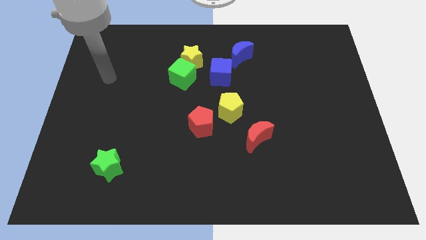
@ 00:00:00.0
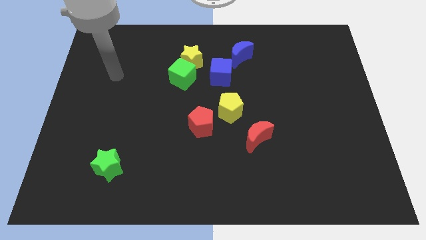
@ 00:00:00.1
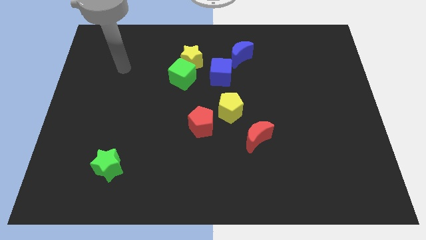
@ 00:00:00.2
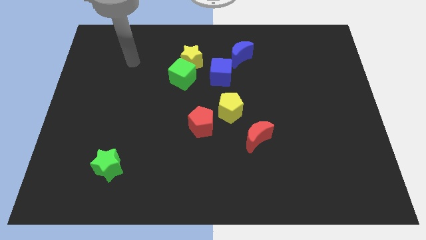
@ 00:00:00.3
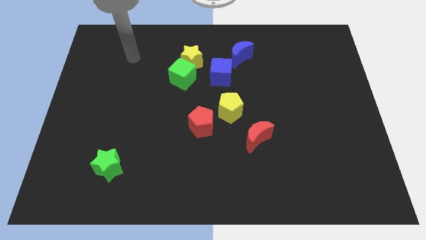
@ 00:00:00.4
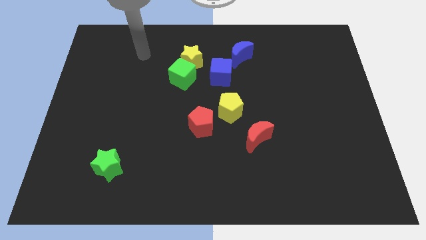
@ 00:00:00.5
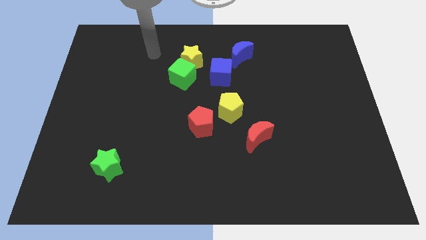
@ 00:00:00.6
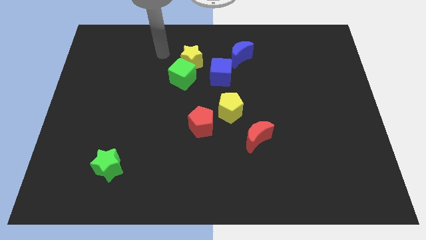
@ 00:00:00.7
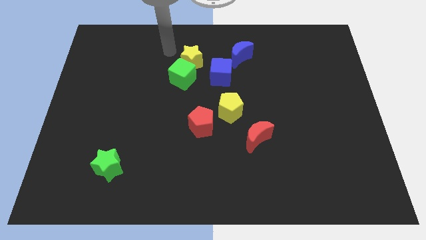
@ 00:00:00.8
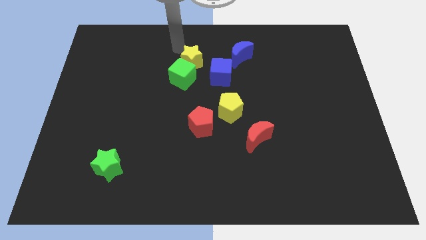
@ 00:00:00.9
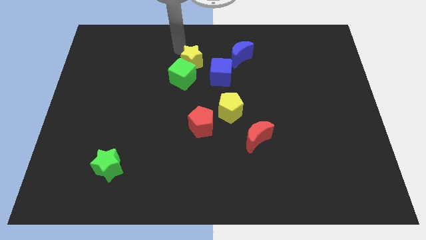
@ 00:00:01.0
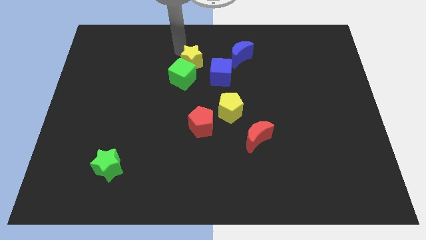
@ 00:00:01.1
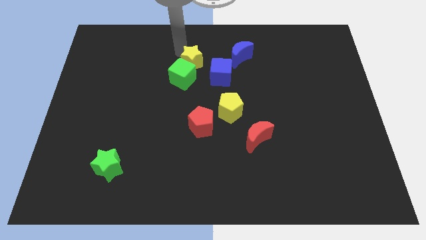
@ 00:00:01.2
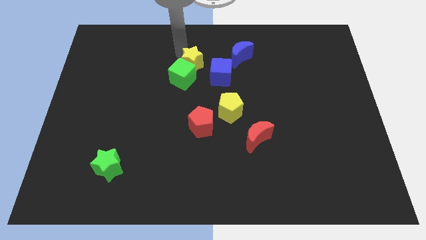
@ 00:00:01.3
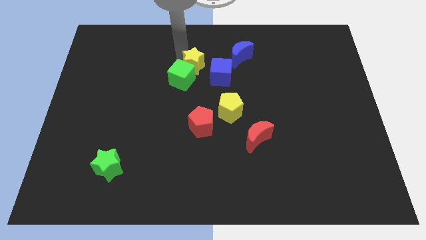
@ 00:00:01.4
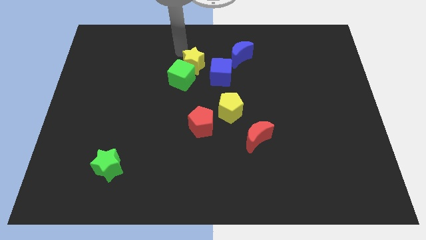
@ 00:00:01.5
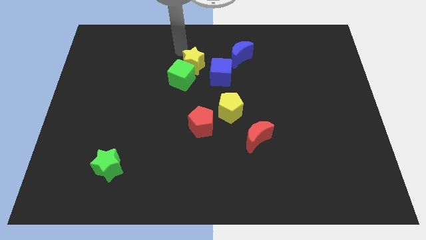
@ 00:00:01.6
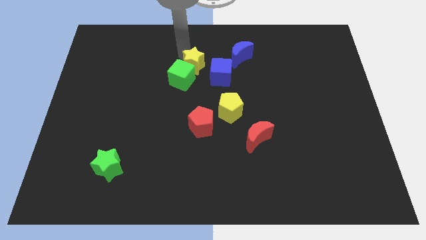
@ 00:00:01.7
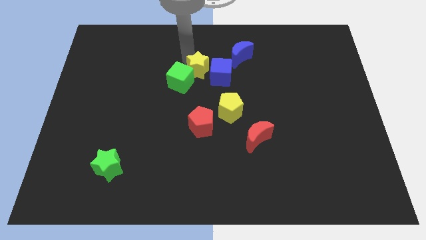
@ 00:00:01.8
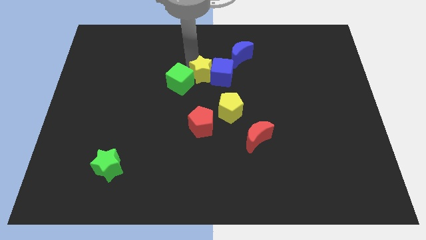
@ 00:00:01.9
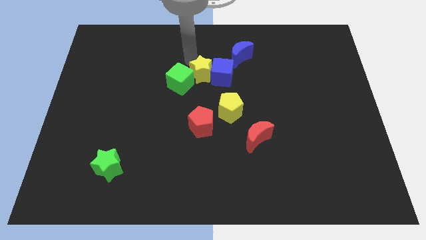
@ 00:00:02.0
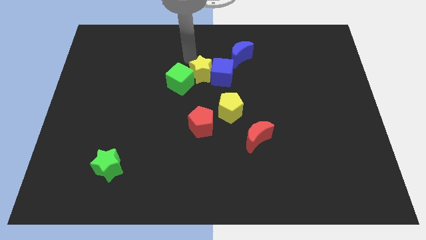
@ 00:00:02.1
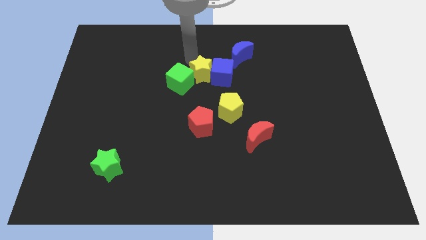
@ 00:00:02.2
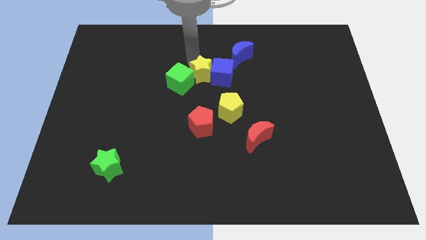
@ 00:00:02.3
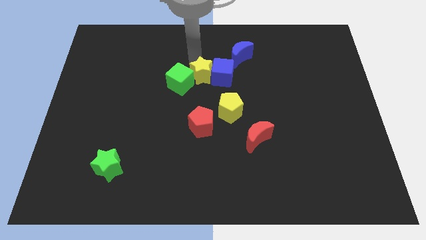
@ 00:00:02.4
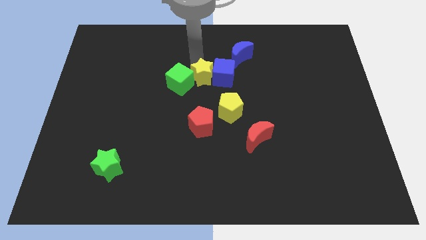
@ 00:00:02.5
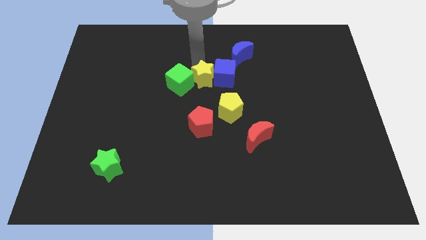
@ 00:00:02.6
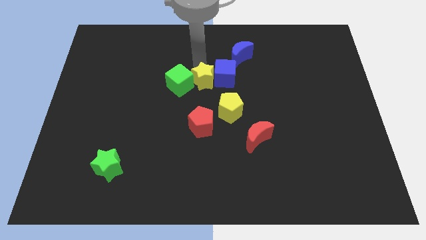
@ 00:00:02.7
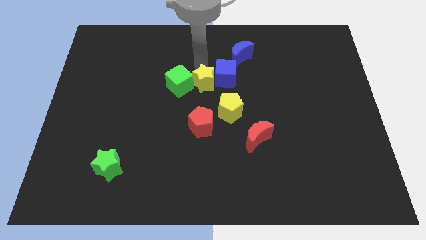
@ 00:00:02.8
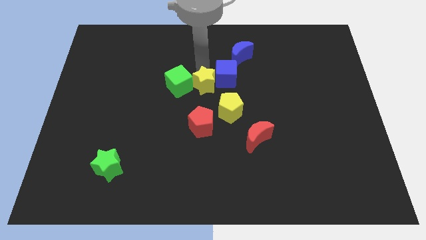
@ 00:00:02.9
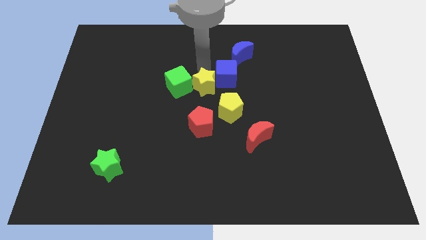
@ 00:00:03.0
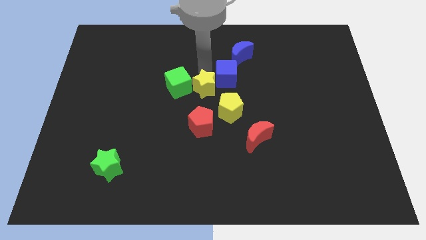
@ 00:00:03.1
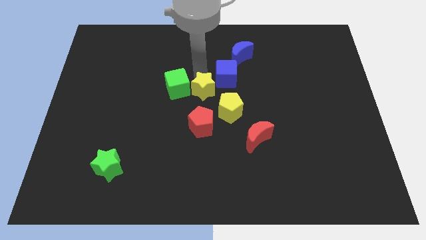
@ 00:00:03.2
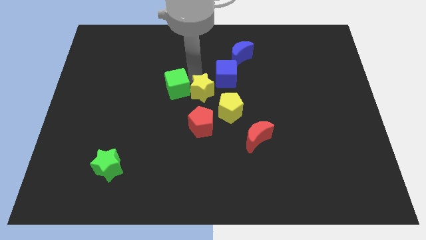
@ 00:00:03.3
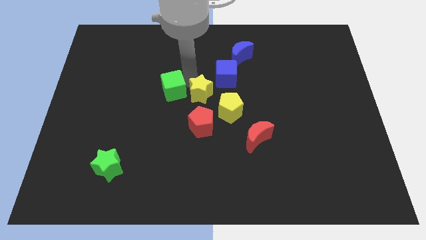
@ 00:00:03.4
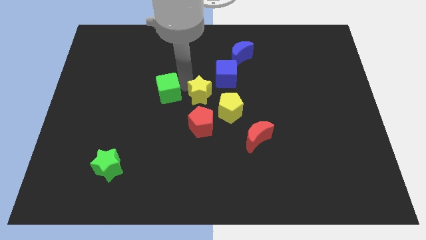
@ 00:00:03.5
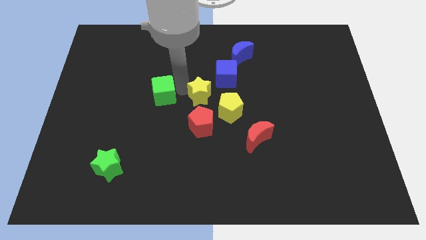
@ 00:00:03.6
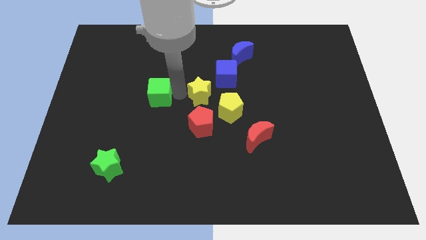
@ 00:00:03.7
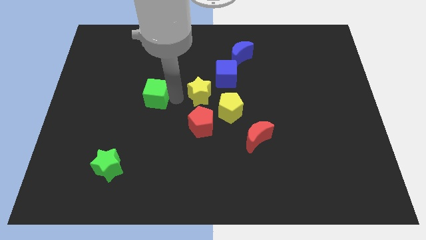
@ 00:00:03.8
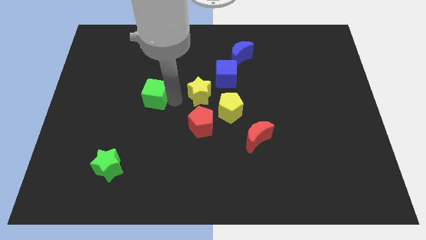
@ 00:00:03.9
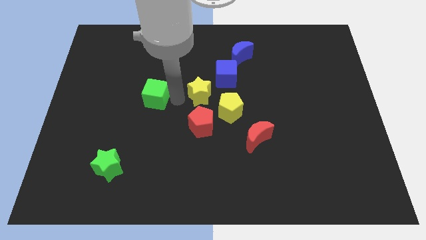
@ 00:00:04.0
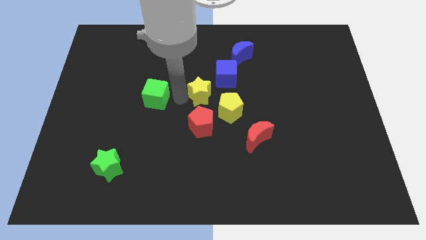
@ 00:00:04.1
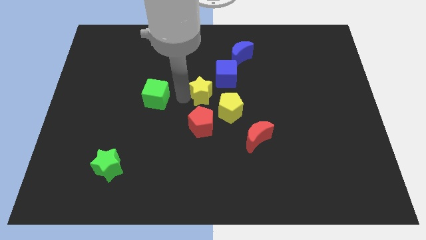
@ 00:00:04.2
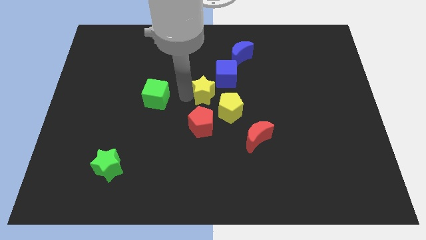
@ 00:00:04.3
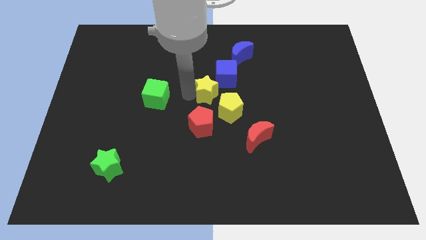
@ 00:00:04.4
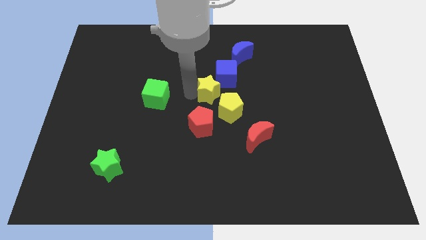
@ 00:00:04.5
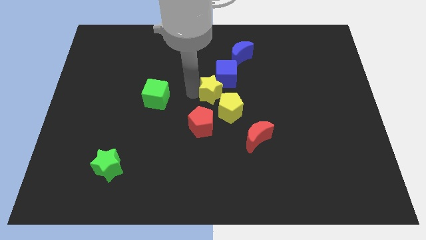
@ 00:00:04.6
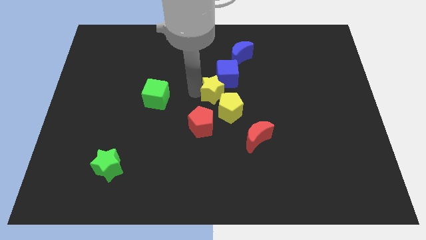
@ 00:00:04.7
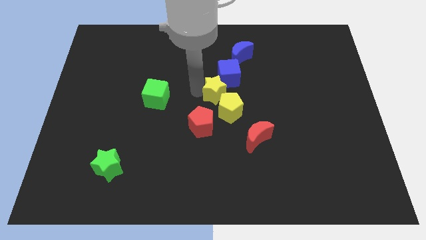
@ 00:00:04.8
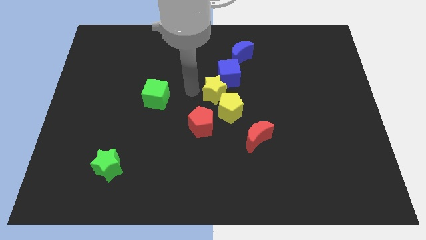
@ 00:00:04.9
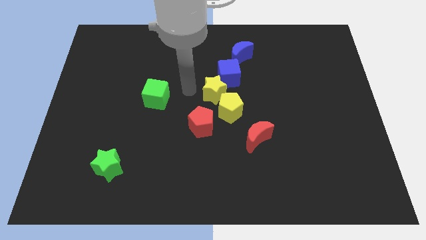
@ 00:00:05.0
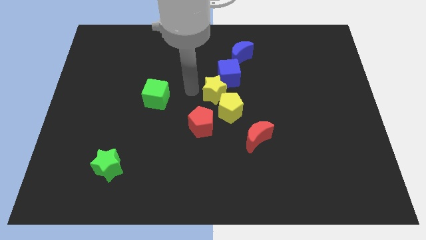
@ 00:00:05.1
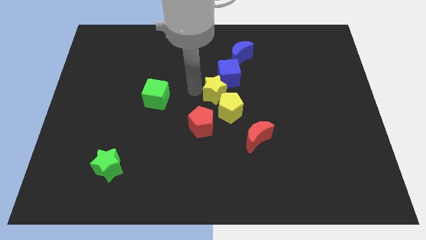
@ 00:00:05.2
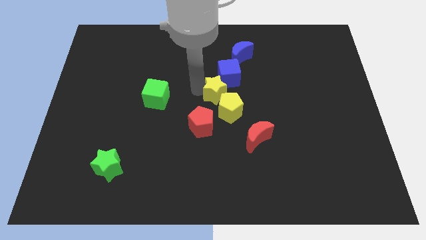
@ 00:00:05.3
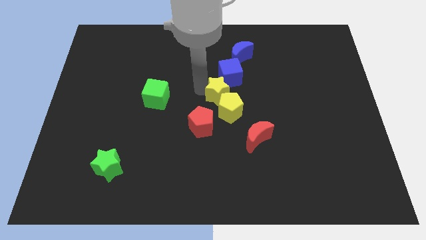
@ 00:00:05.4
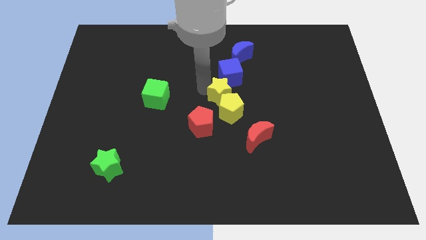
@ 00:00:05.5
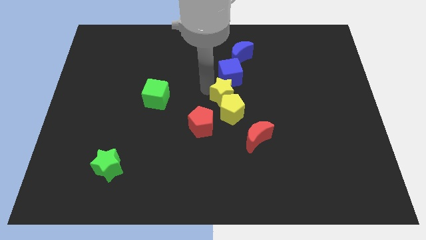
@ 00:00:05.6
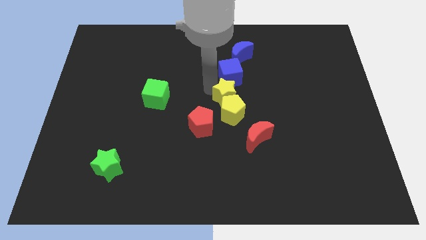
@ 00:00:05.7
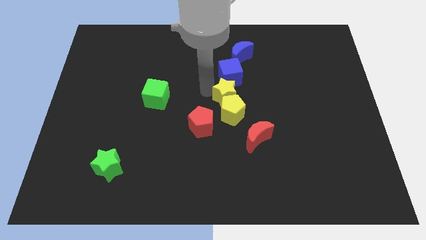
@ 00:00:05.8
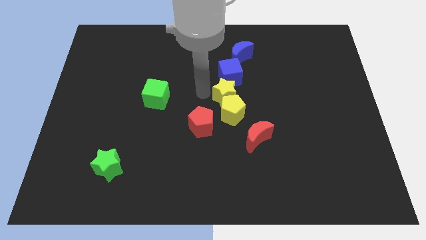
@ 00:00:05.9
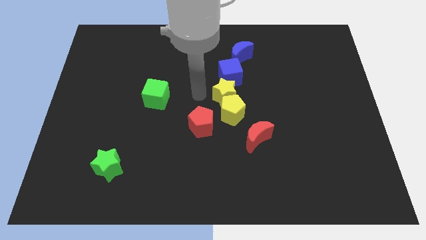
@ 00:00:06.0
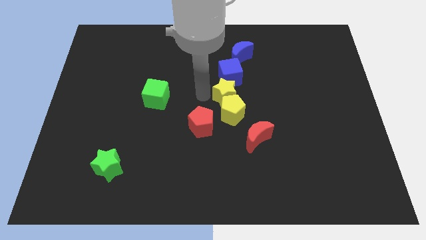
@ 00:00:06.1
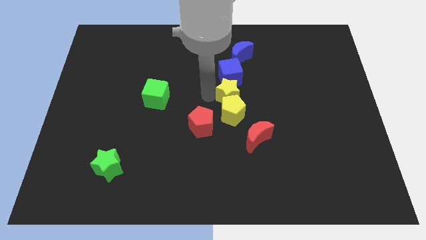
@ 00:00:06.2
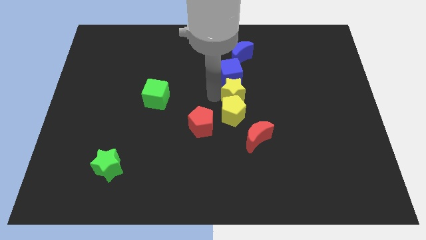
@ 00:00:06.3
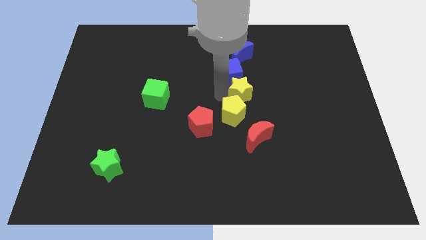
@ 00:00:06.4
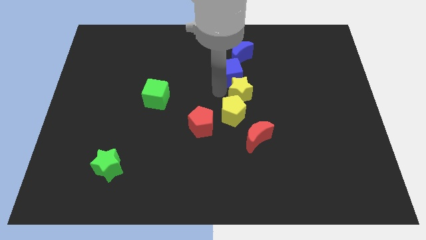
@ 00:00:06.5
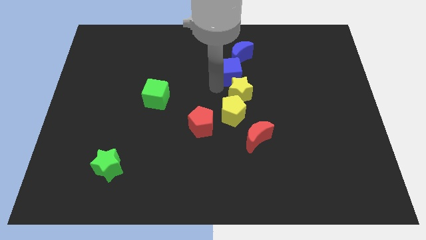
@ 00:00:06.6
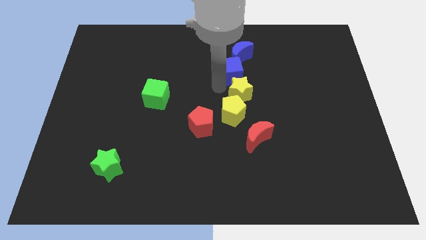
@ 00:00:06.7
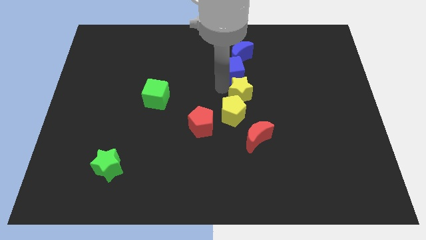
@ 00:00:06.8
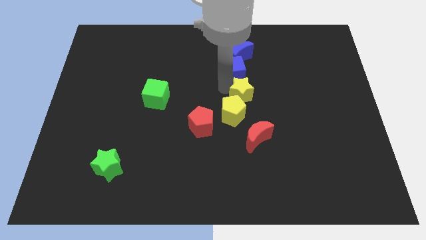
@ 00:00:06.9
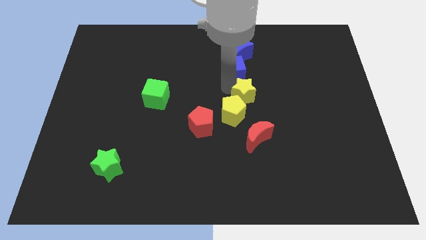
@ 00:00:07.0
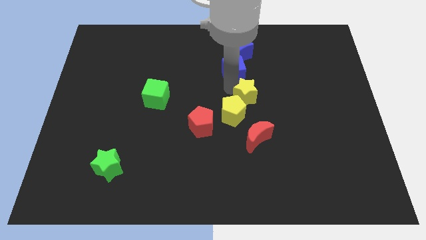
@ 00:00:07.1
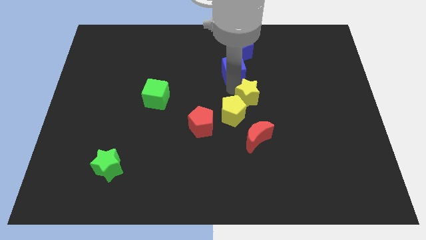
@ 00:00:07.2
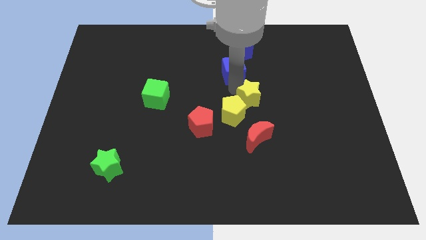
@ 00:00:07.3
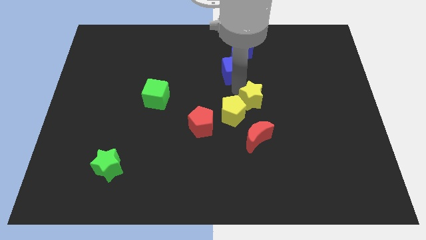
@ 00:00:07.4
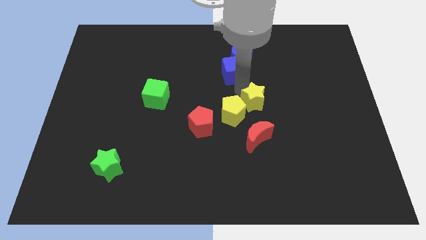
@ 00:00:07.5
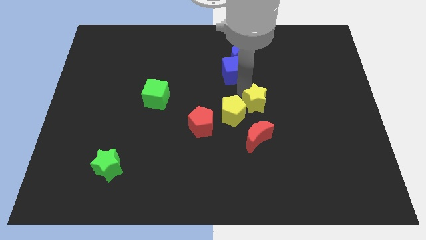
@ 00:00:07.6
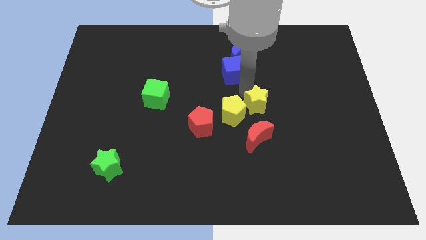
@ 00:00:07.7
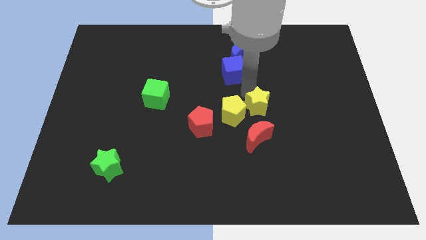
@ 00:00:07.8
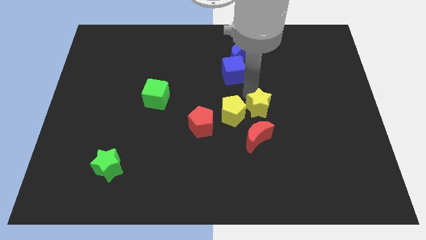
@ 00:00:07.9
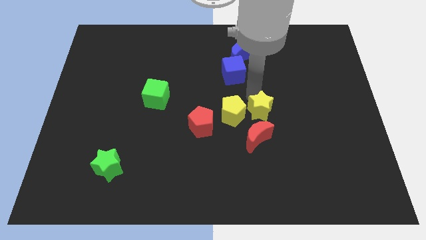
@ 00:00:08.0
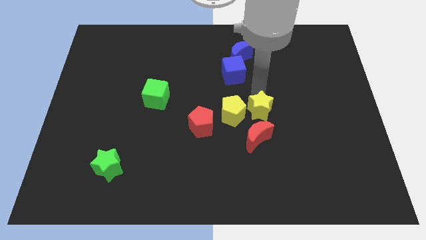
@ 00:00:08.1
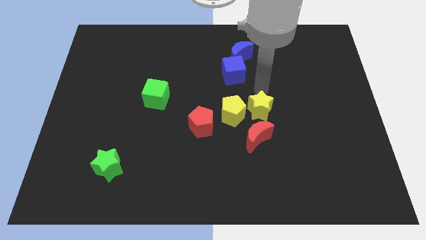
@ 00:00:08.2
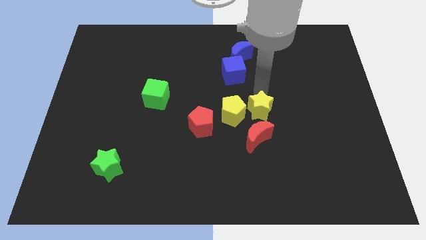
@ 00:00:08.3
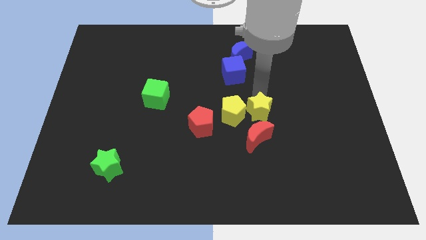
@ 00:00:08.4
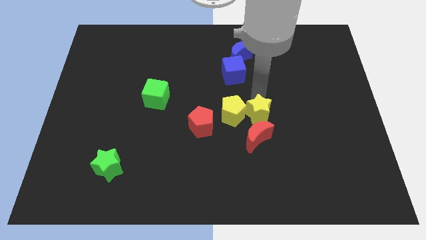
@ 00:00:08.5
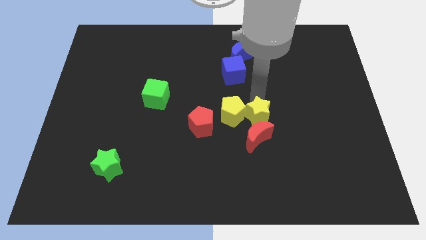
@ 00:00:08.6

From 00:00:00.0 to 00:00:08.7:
put the yellow star towards the red moon
